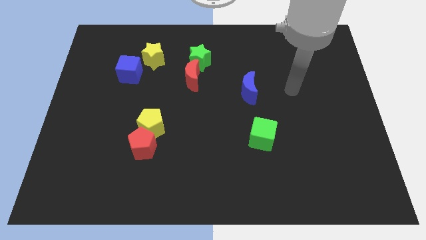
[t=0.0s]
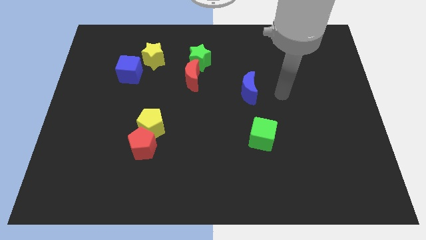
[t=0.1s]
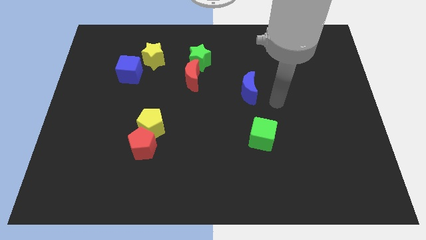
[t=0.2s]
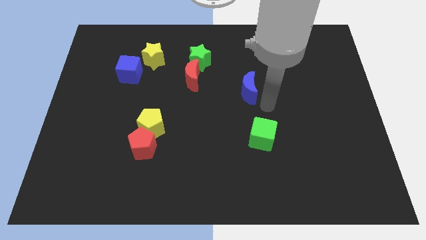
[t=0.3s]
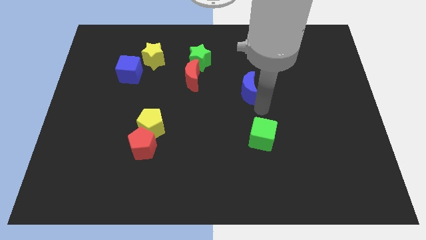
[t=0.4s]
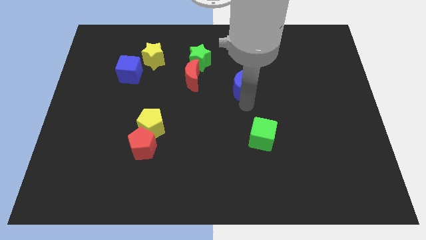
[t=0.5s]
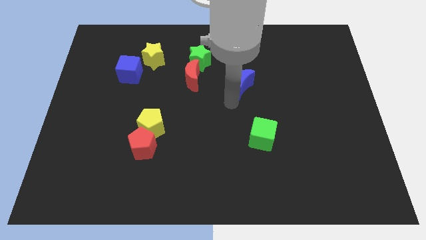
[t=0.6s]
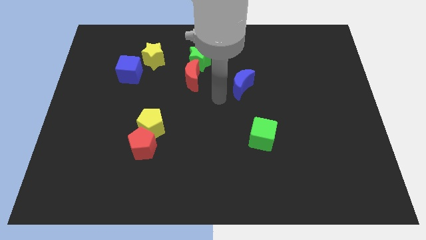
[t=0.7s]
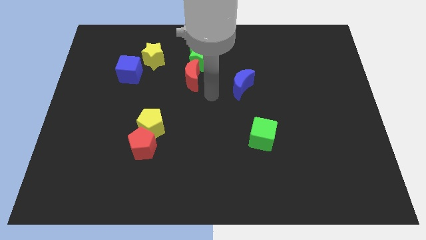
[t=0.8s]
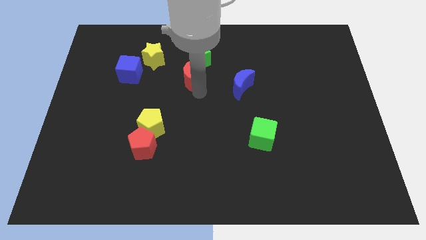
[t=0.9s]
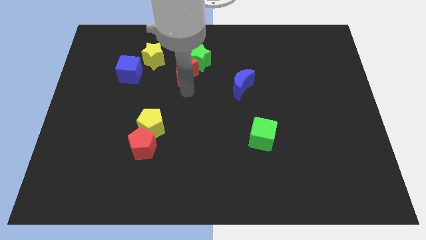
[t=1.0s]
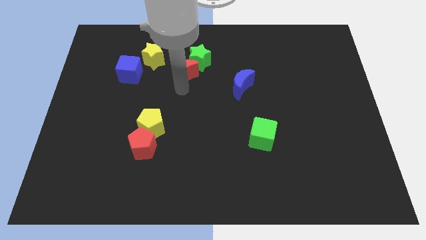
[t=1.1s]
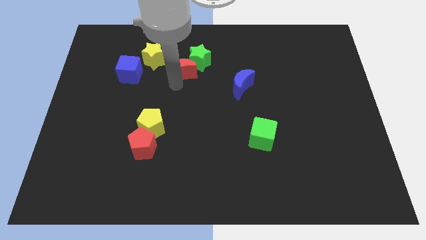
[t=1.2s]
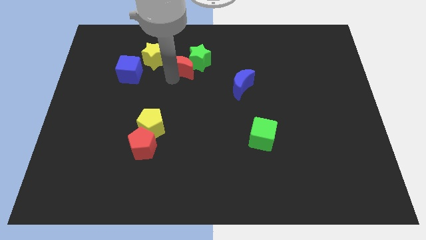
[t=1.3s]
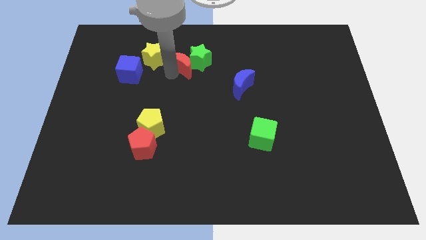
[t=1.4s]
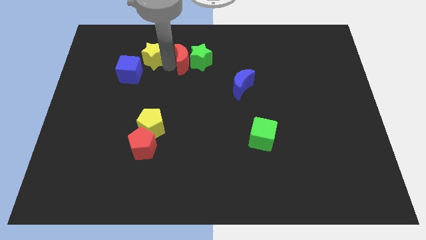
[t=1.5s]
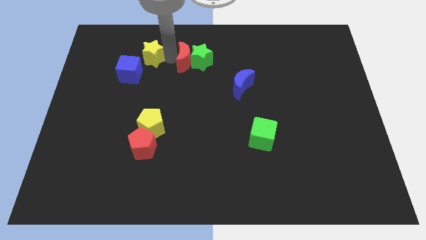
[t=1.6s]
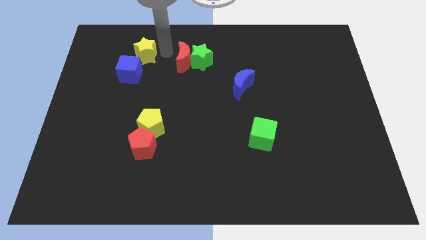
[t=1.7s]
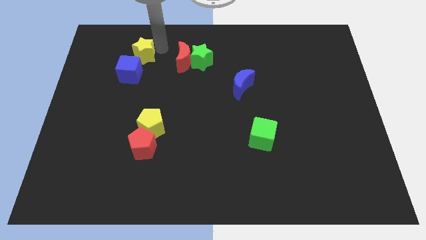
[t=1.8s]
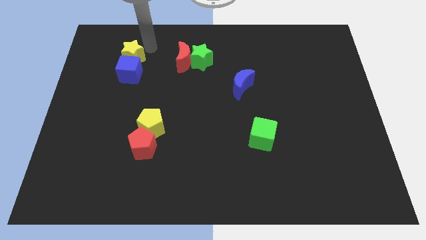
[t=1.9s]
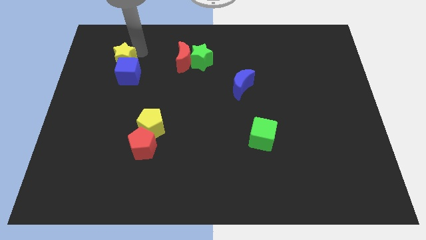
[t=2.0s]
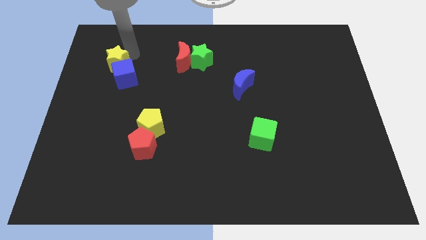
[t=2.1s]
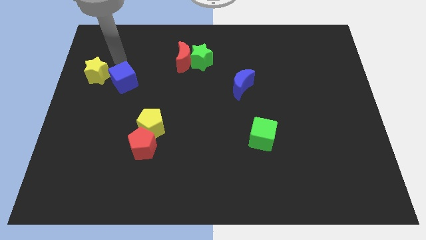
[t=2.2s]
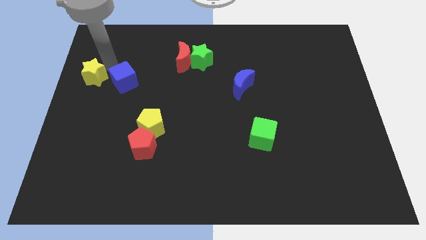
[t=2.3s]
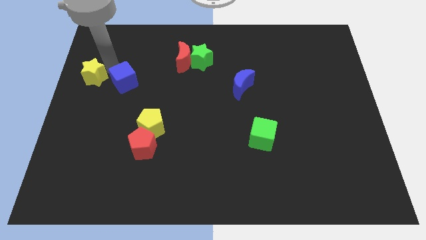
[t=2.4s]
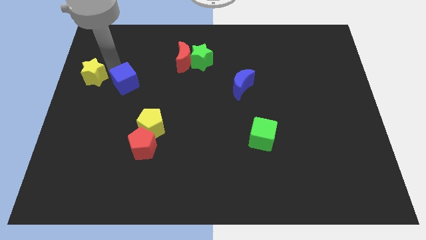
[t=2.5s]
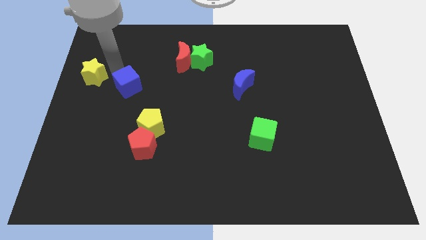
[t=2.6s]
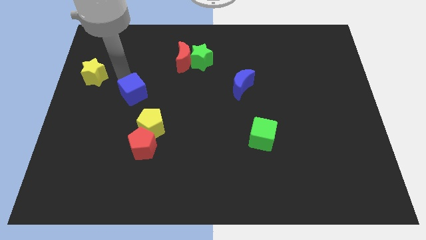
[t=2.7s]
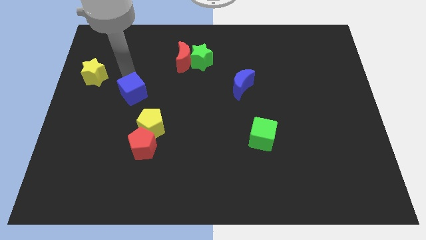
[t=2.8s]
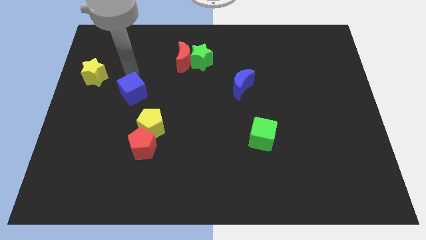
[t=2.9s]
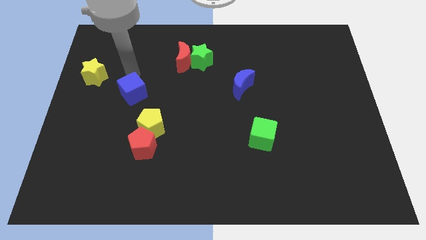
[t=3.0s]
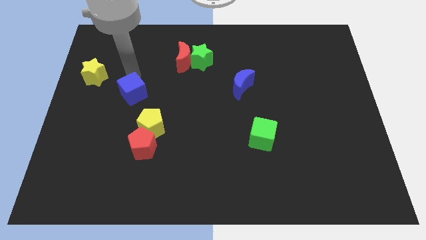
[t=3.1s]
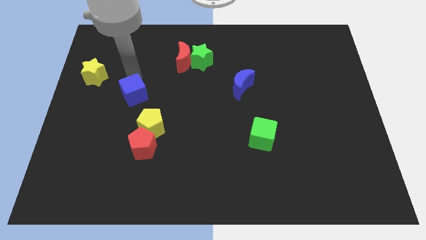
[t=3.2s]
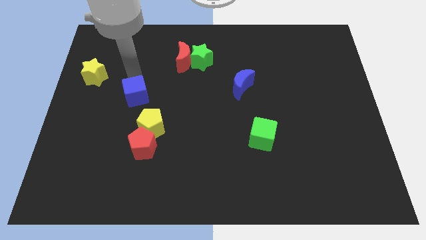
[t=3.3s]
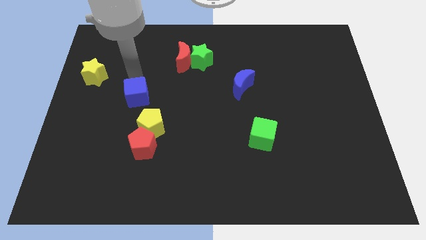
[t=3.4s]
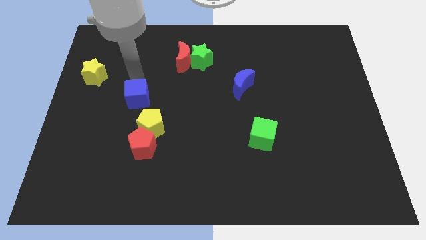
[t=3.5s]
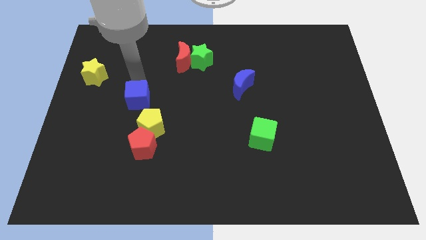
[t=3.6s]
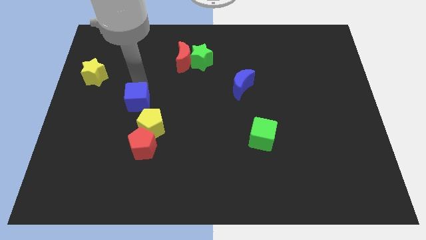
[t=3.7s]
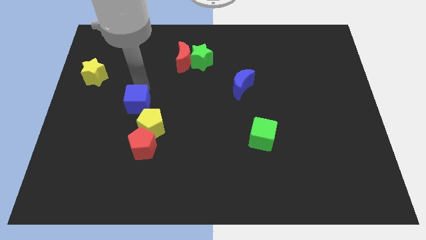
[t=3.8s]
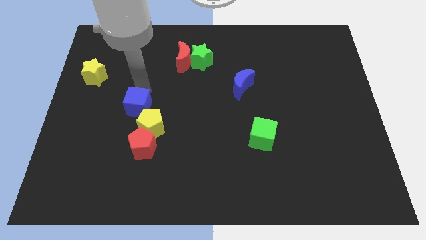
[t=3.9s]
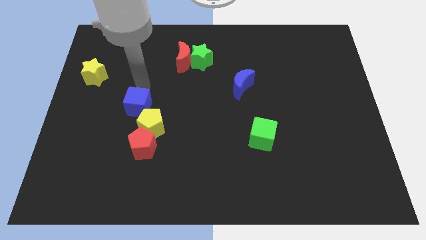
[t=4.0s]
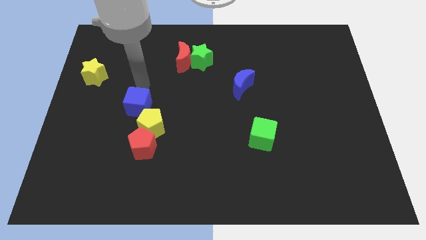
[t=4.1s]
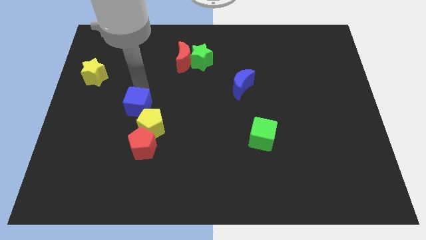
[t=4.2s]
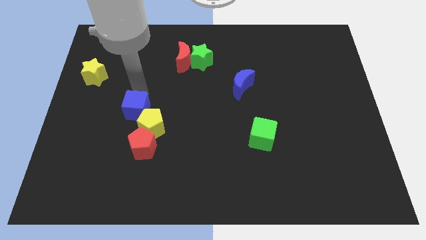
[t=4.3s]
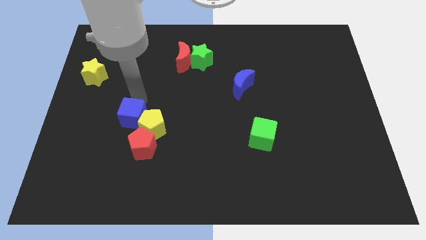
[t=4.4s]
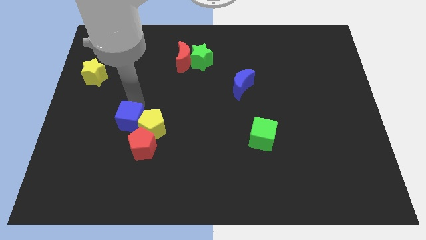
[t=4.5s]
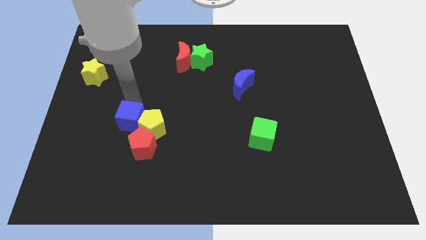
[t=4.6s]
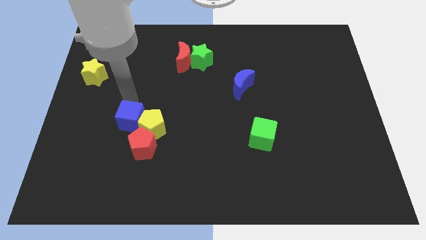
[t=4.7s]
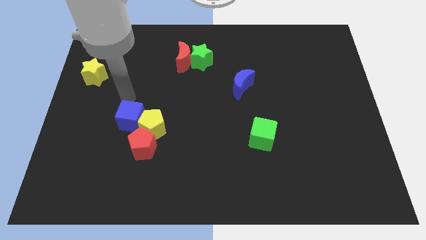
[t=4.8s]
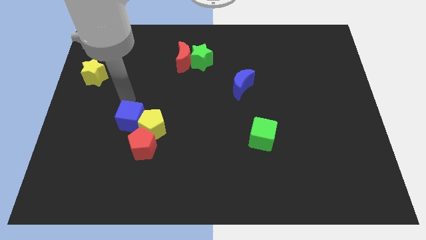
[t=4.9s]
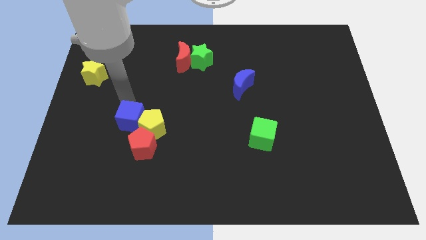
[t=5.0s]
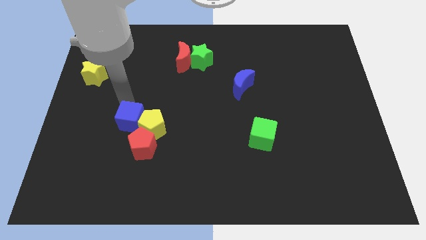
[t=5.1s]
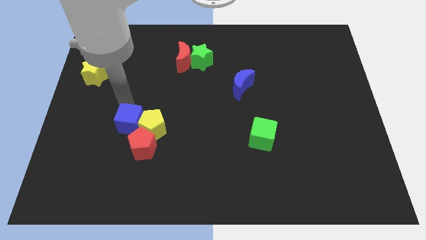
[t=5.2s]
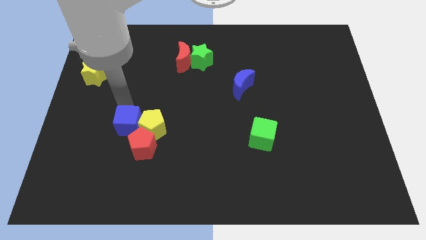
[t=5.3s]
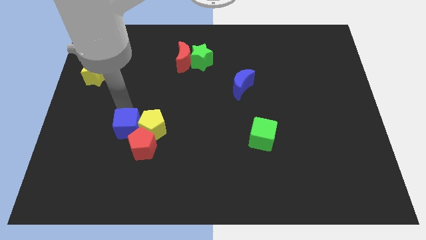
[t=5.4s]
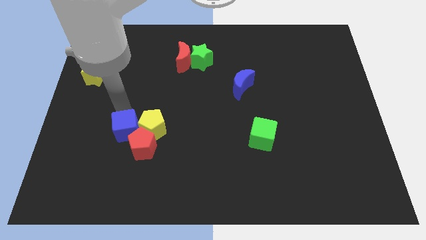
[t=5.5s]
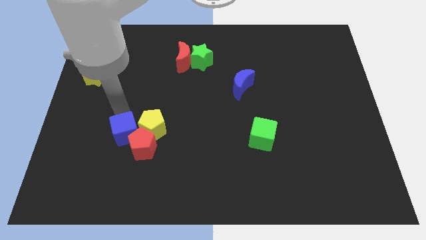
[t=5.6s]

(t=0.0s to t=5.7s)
slide the blue cube to the red pentagon

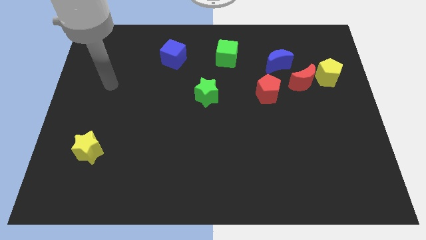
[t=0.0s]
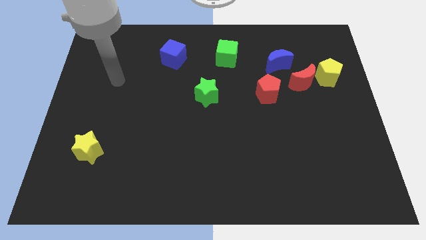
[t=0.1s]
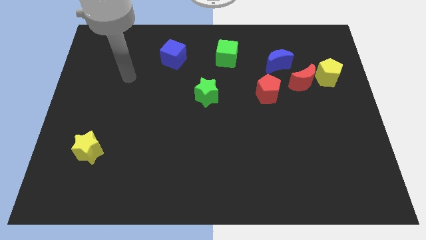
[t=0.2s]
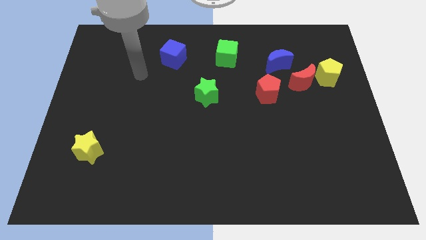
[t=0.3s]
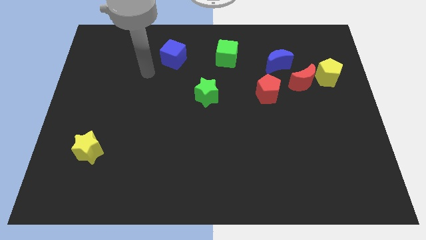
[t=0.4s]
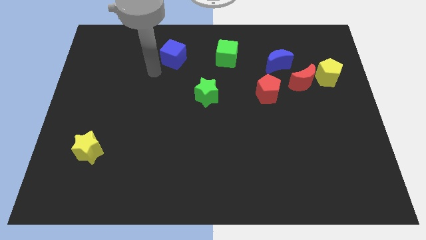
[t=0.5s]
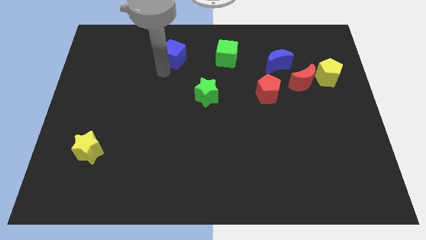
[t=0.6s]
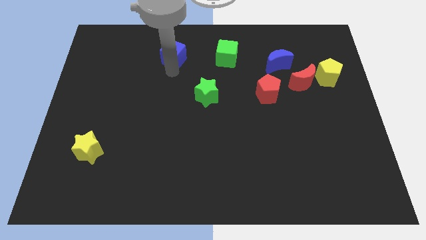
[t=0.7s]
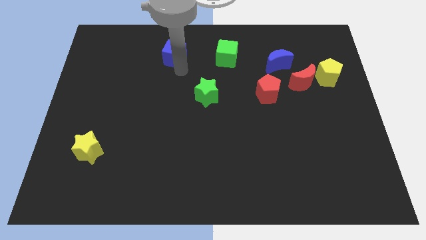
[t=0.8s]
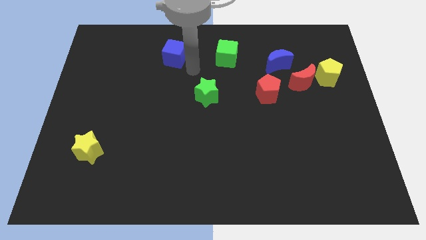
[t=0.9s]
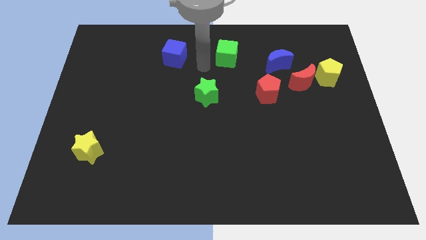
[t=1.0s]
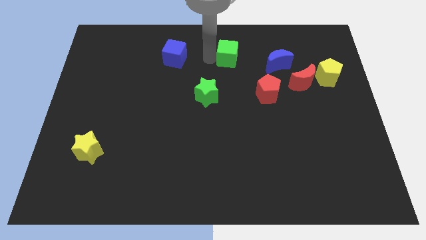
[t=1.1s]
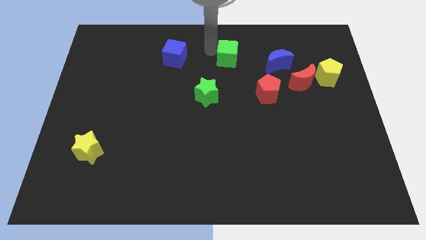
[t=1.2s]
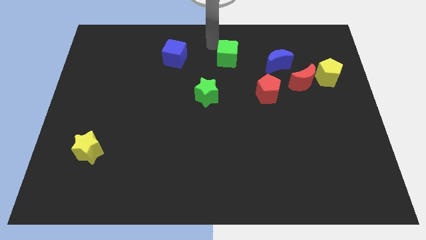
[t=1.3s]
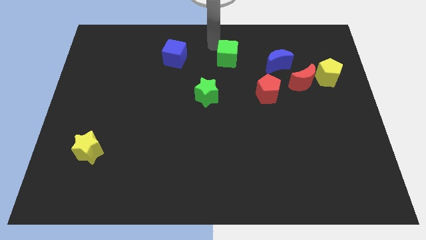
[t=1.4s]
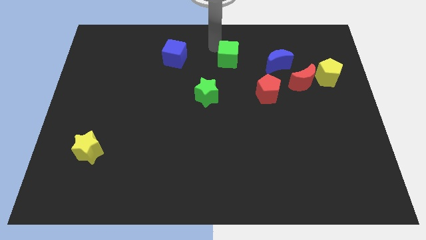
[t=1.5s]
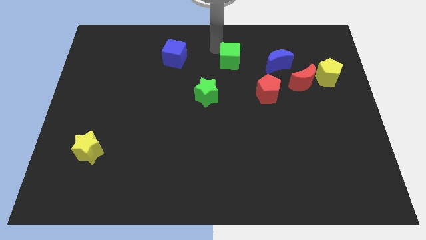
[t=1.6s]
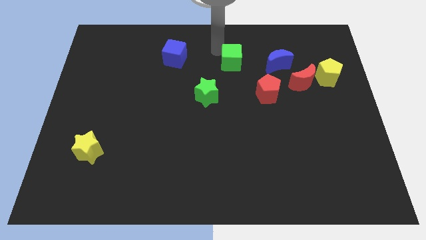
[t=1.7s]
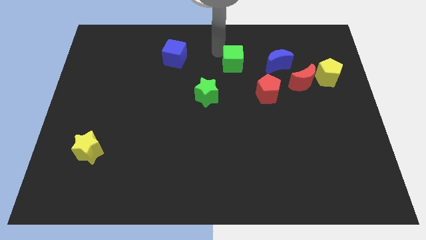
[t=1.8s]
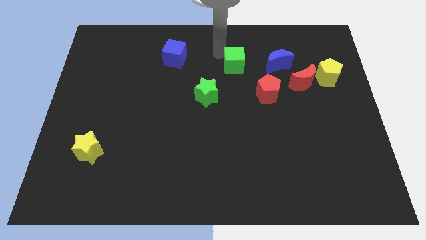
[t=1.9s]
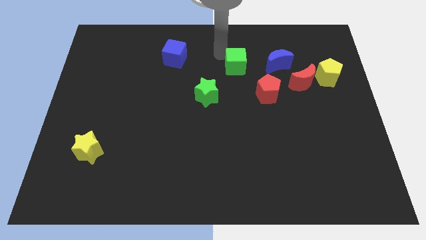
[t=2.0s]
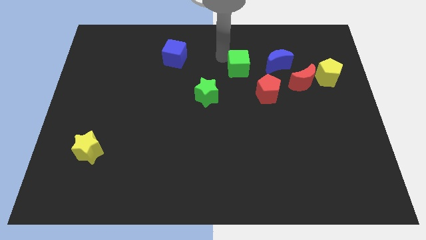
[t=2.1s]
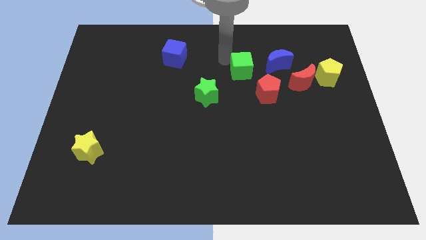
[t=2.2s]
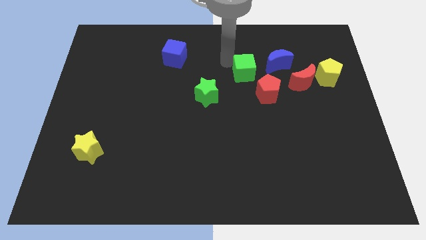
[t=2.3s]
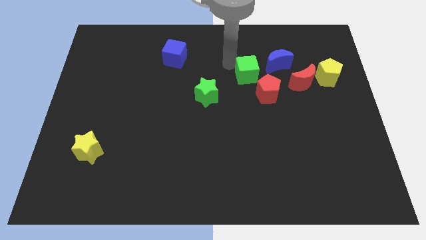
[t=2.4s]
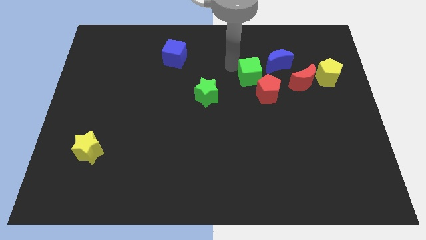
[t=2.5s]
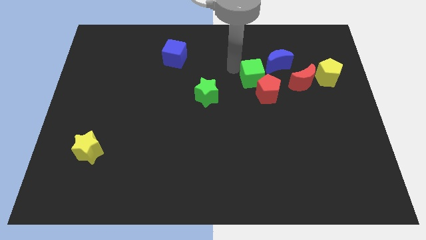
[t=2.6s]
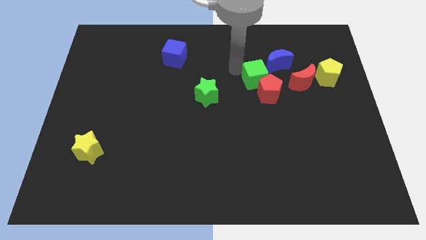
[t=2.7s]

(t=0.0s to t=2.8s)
move the green cube next to the red pentagon
